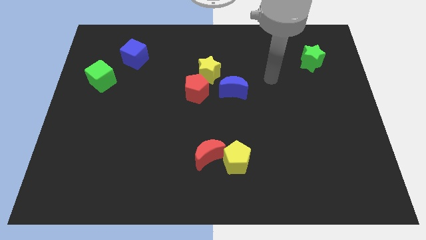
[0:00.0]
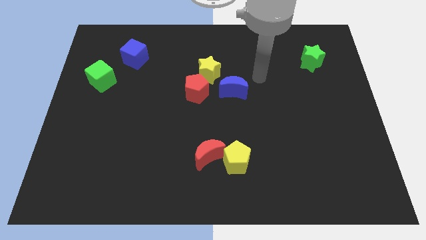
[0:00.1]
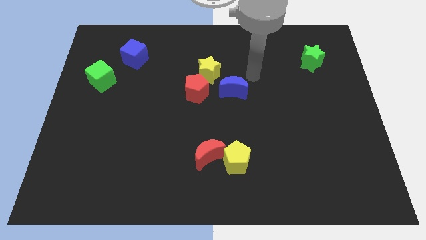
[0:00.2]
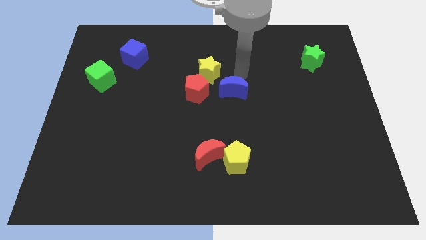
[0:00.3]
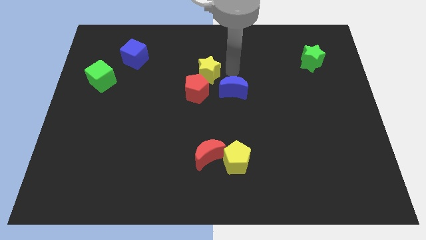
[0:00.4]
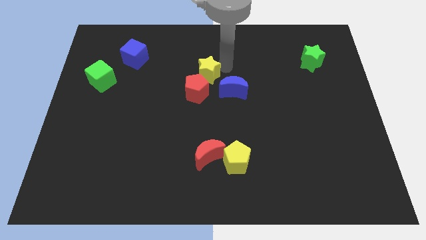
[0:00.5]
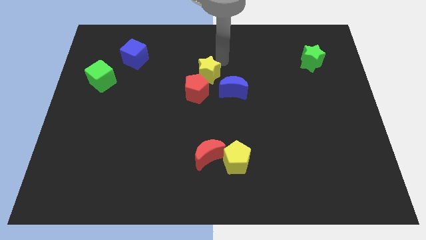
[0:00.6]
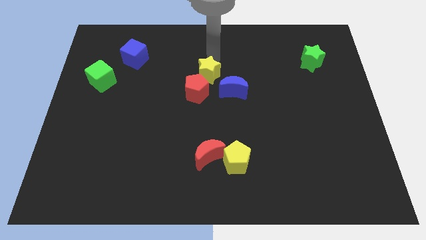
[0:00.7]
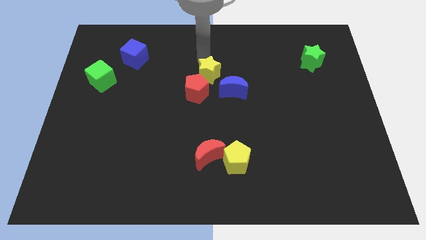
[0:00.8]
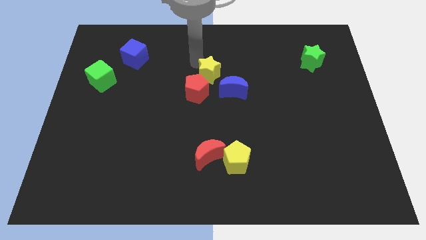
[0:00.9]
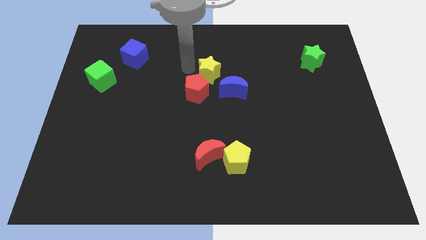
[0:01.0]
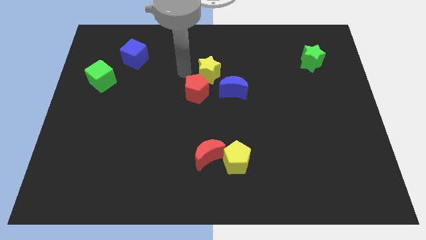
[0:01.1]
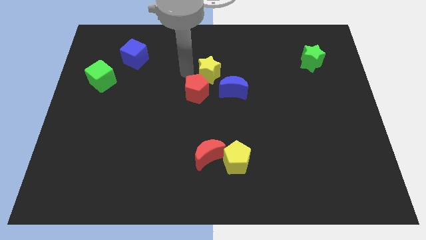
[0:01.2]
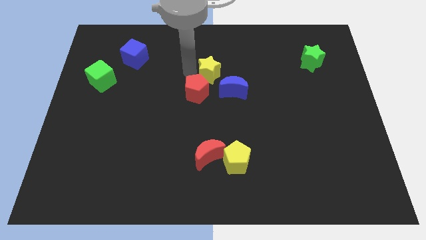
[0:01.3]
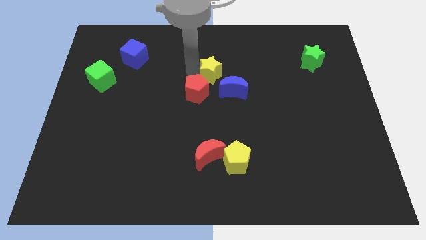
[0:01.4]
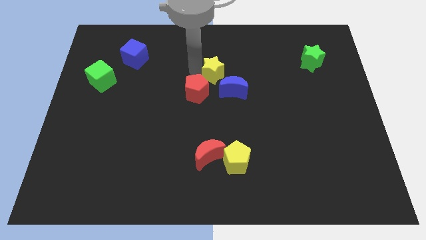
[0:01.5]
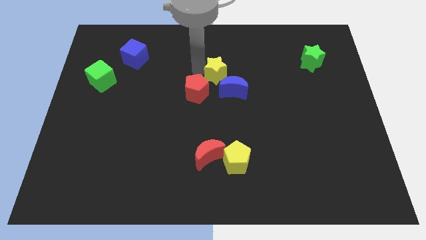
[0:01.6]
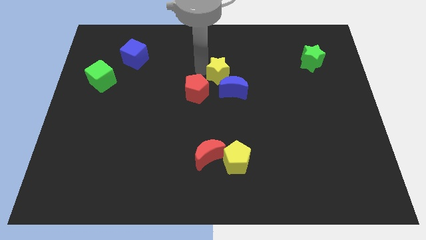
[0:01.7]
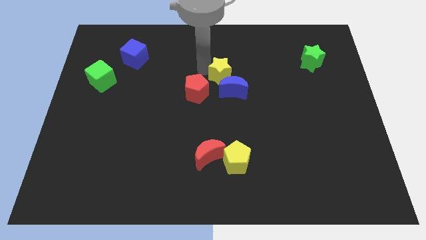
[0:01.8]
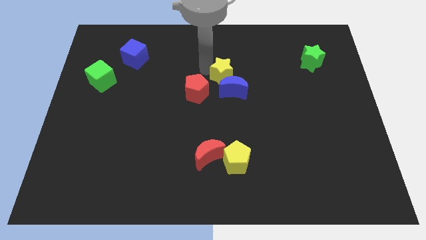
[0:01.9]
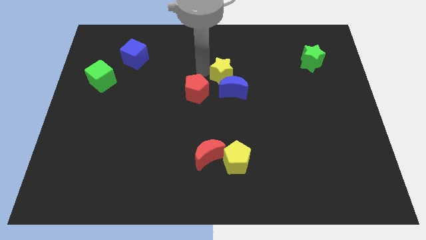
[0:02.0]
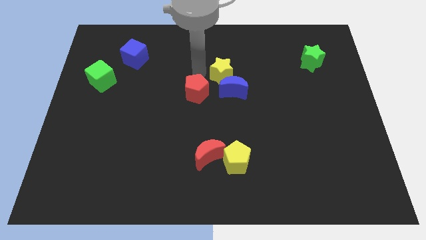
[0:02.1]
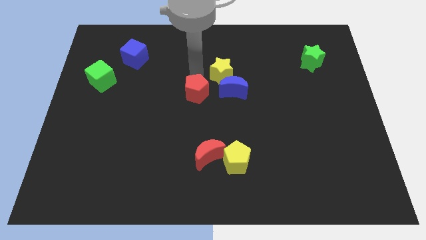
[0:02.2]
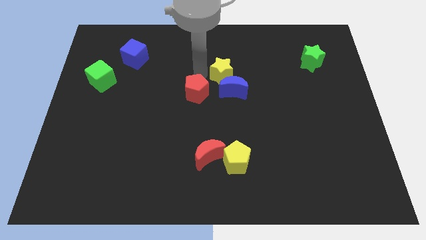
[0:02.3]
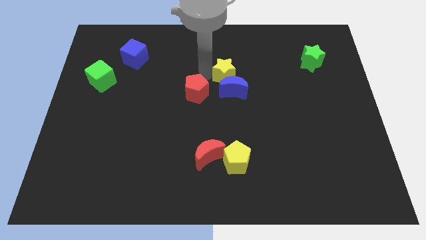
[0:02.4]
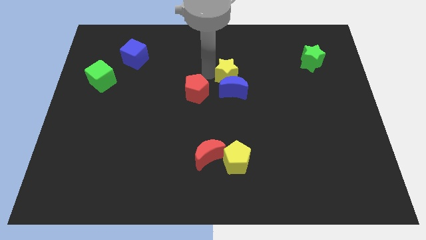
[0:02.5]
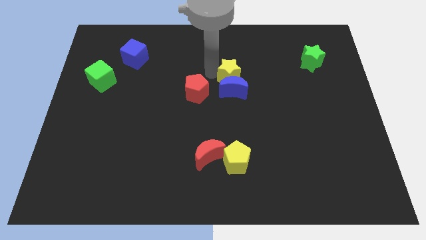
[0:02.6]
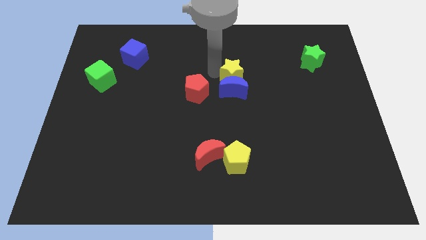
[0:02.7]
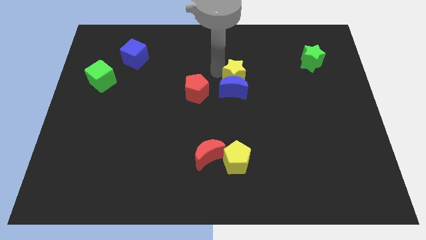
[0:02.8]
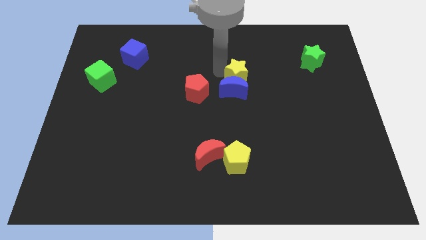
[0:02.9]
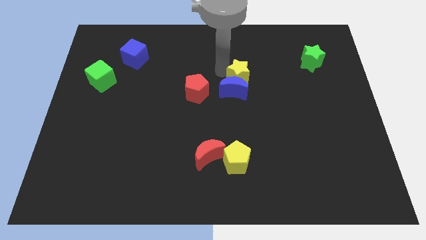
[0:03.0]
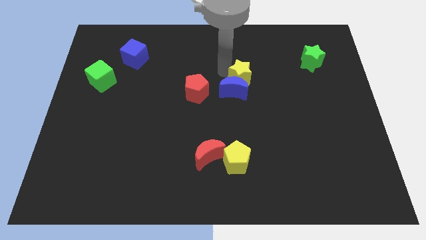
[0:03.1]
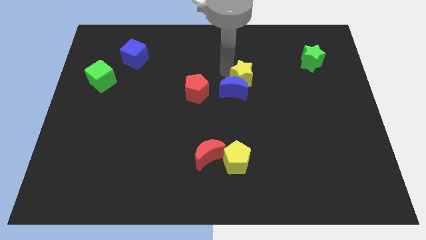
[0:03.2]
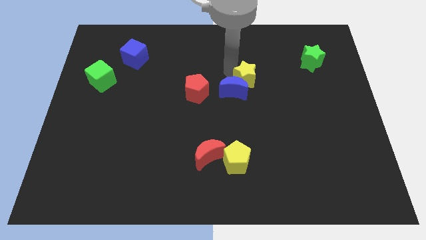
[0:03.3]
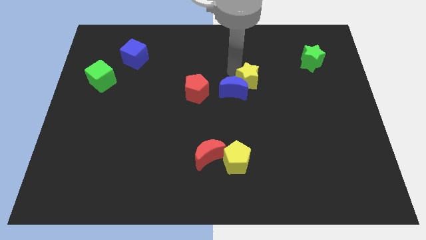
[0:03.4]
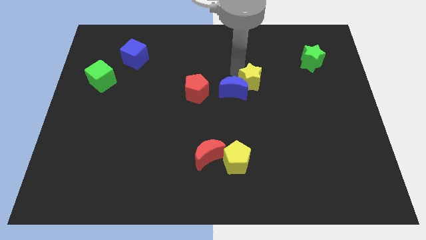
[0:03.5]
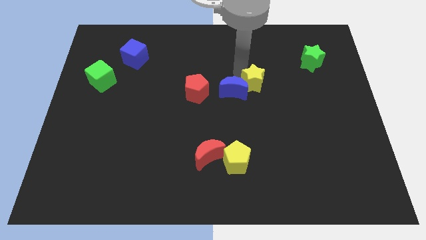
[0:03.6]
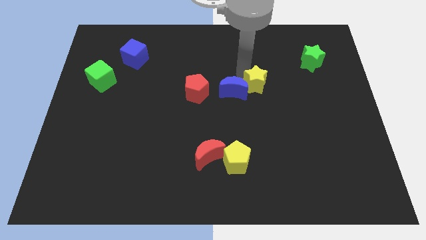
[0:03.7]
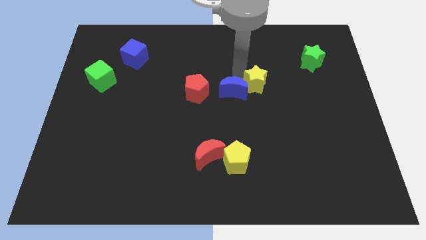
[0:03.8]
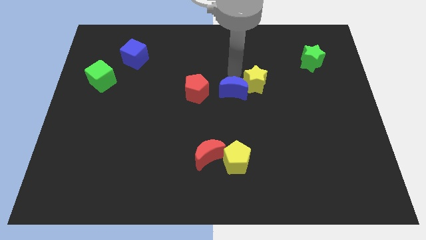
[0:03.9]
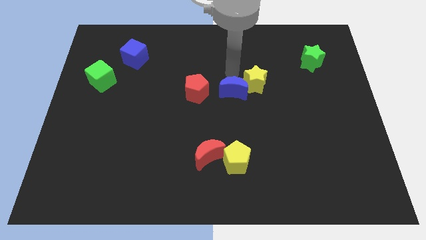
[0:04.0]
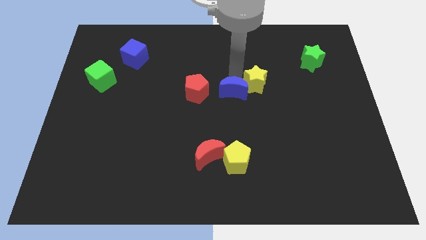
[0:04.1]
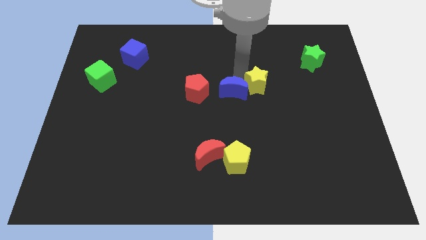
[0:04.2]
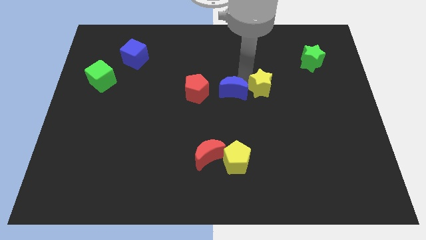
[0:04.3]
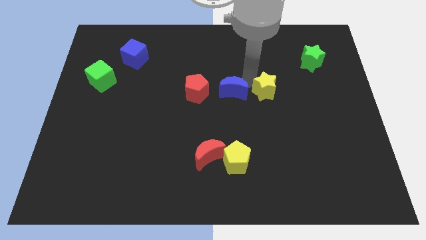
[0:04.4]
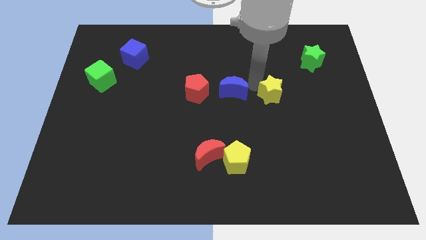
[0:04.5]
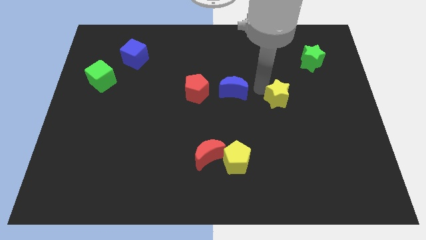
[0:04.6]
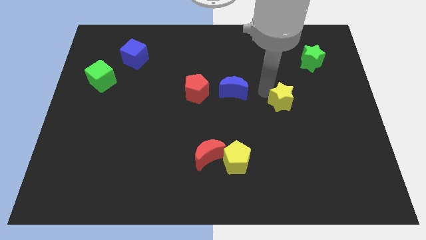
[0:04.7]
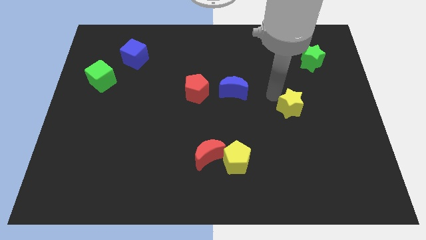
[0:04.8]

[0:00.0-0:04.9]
push the yellow star diagonally down and right

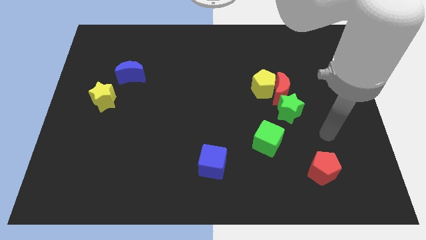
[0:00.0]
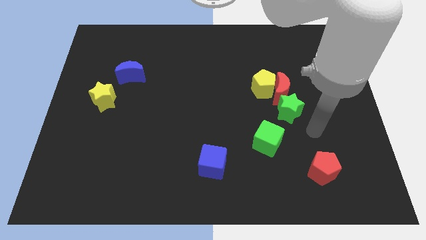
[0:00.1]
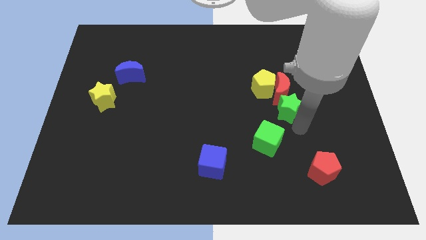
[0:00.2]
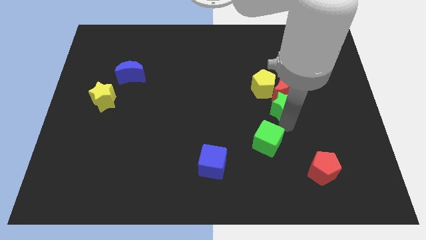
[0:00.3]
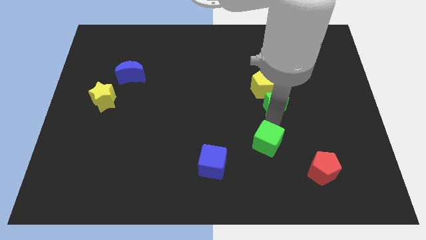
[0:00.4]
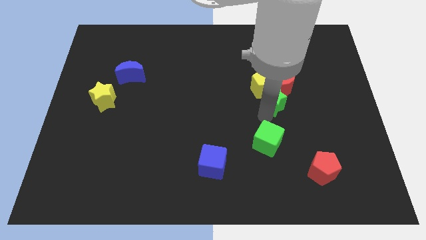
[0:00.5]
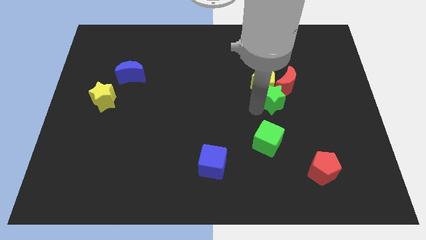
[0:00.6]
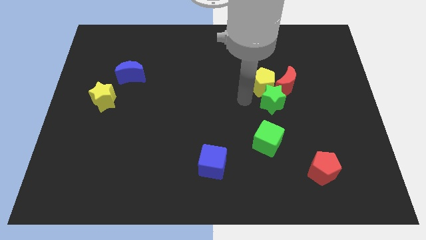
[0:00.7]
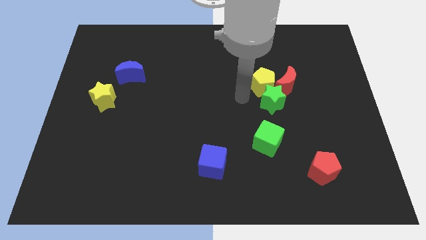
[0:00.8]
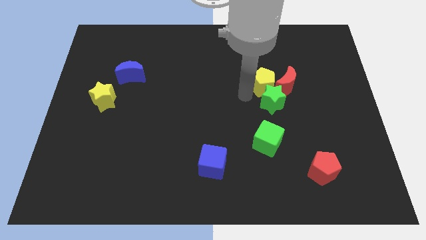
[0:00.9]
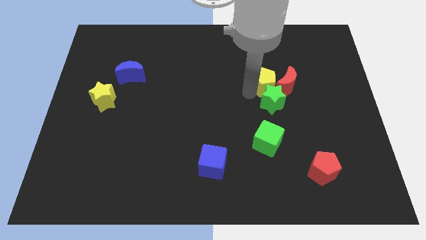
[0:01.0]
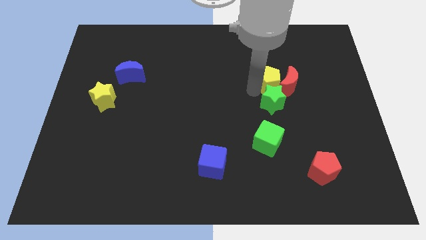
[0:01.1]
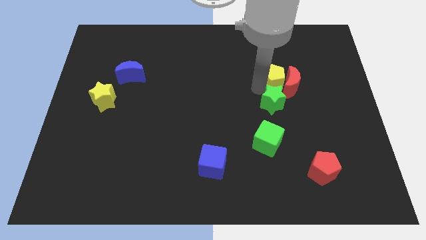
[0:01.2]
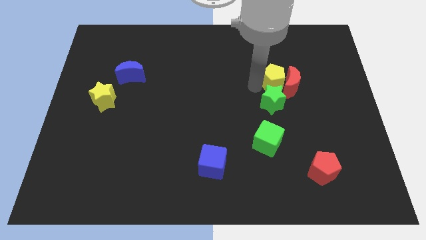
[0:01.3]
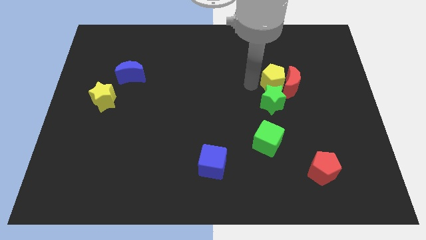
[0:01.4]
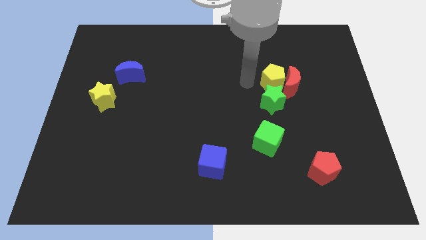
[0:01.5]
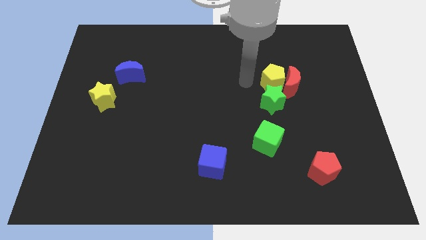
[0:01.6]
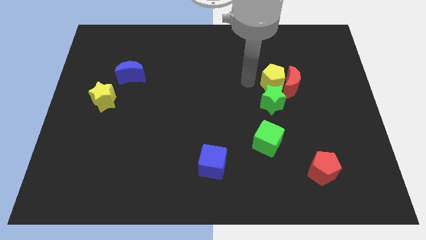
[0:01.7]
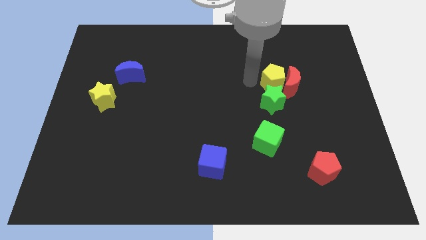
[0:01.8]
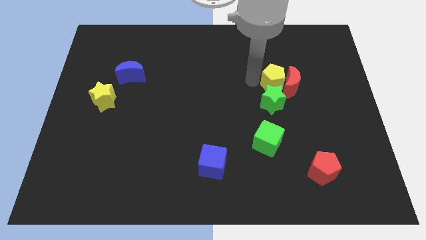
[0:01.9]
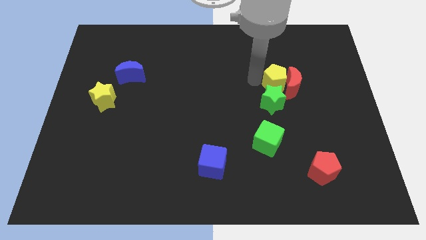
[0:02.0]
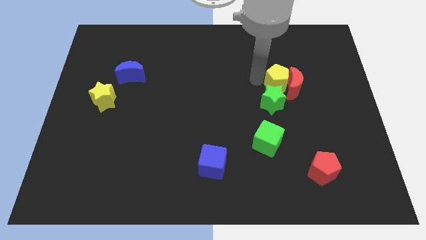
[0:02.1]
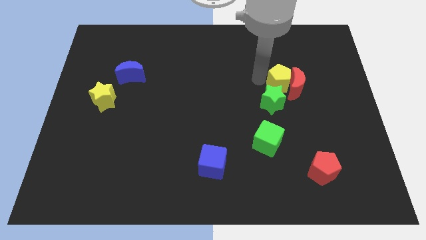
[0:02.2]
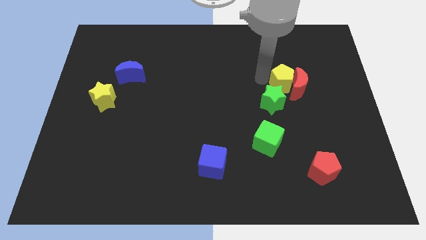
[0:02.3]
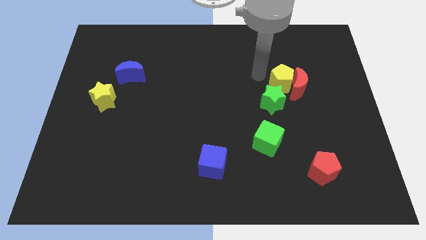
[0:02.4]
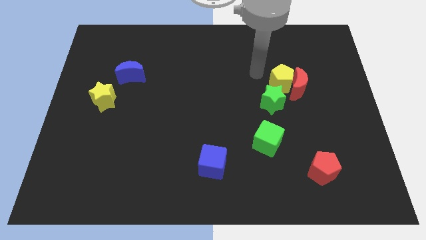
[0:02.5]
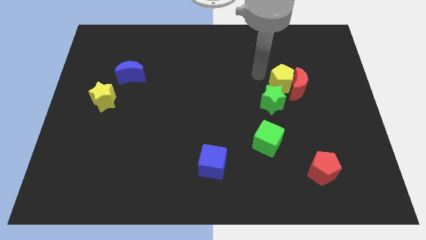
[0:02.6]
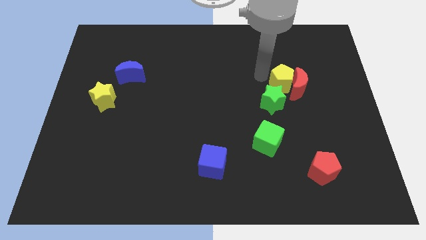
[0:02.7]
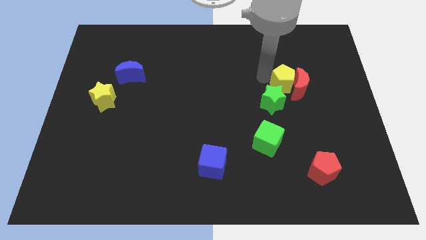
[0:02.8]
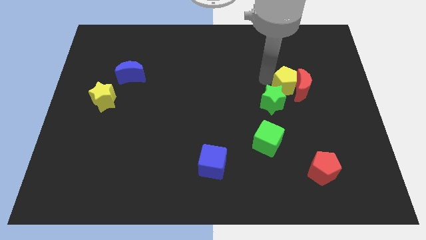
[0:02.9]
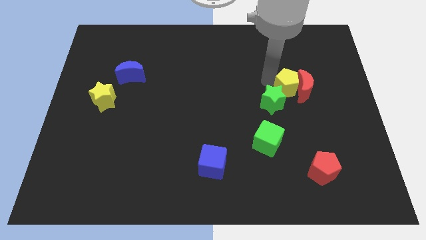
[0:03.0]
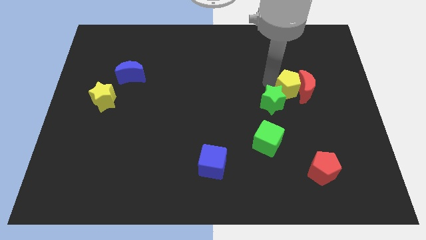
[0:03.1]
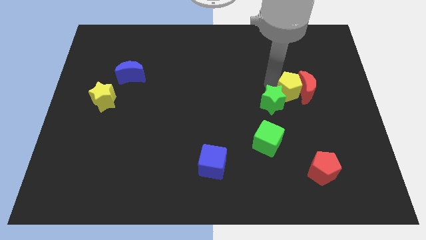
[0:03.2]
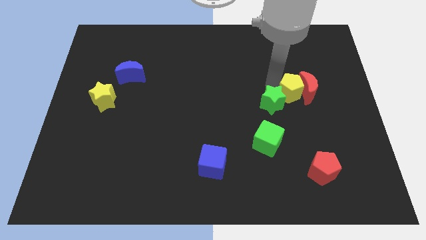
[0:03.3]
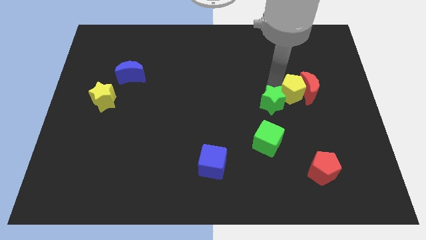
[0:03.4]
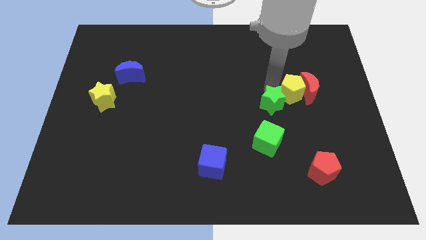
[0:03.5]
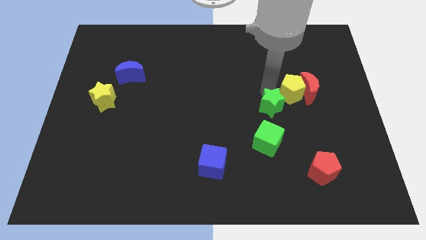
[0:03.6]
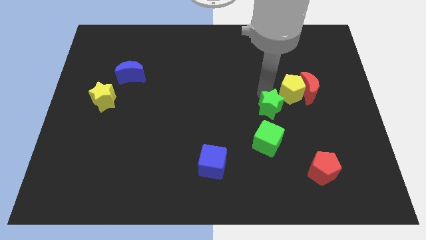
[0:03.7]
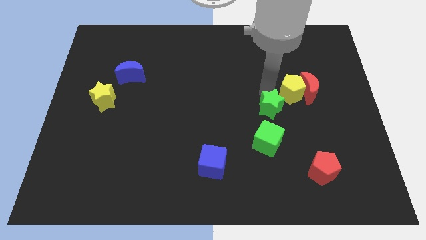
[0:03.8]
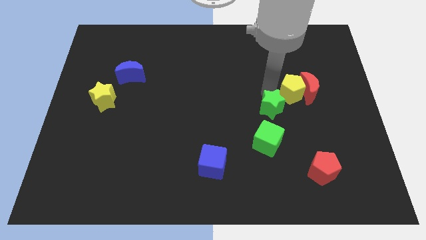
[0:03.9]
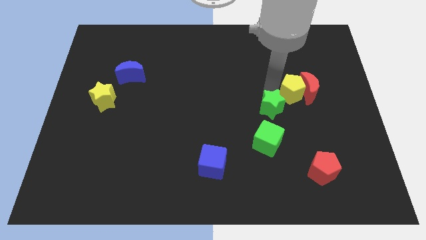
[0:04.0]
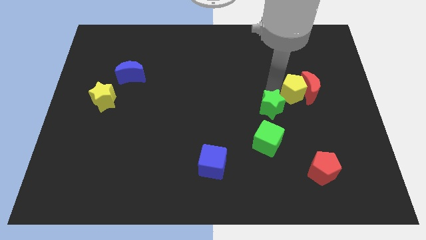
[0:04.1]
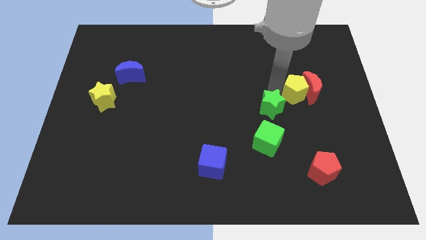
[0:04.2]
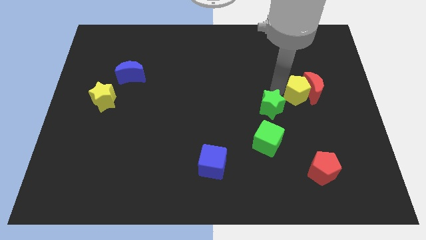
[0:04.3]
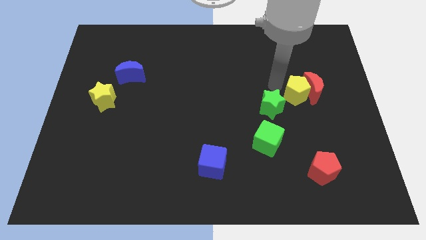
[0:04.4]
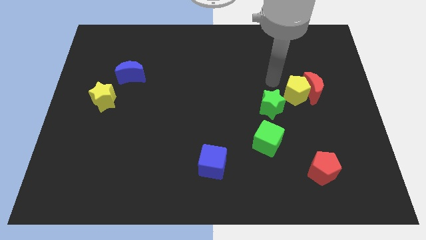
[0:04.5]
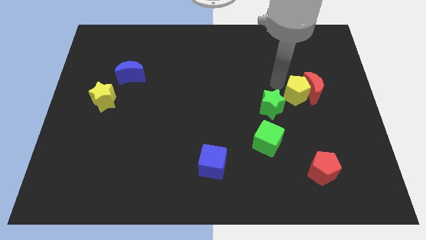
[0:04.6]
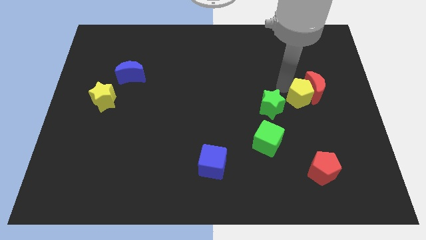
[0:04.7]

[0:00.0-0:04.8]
slightly move the yellow pentagon downwards and then to the right
